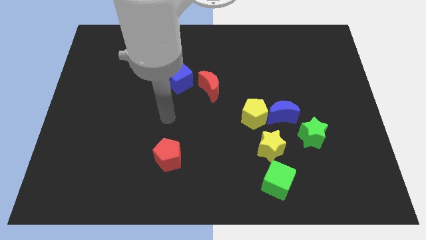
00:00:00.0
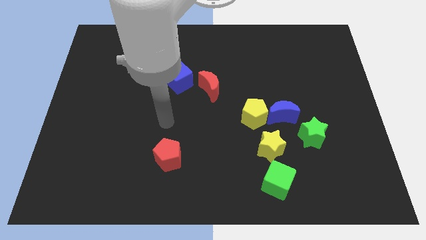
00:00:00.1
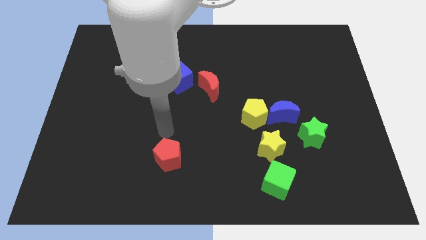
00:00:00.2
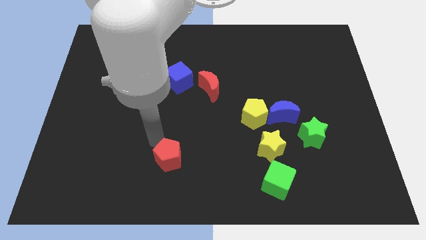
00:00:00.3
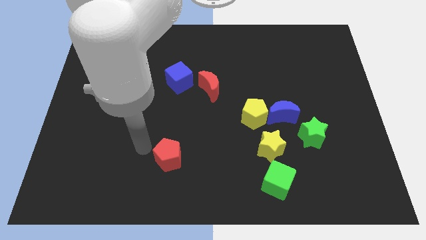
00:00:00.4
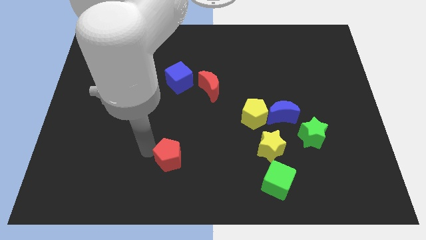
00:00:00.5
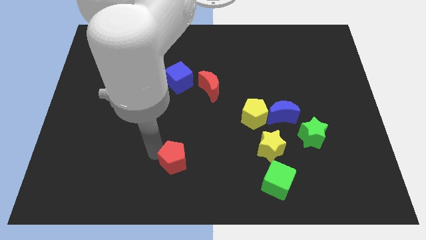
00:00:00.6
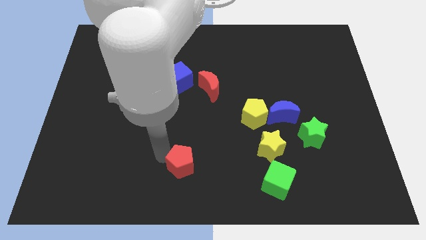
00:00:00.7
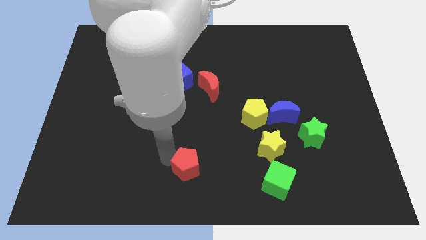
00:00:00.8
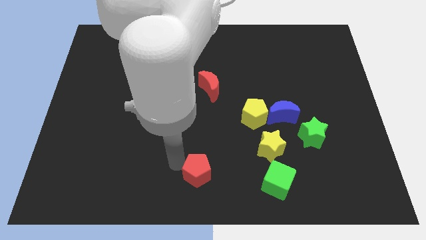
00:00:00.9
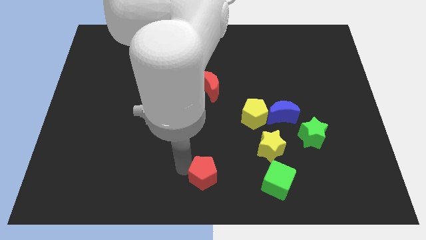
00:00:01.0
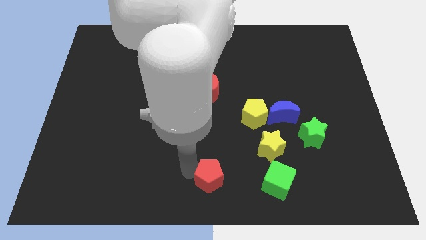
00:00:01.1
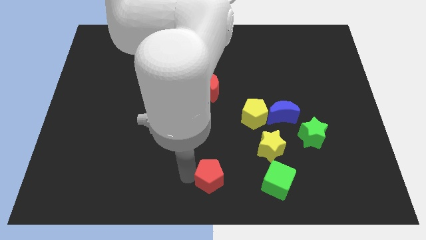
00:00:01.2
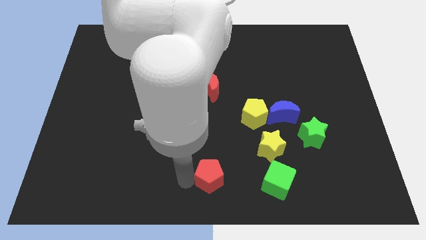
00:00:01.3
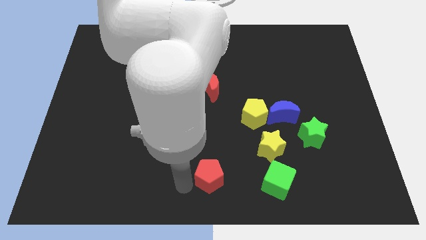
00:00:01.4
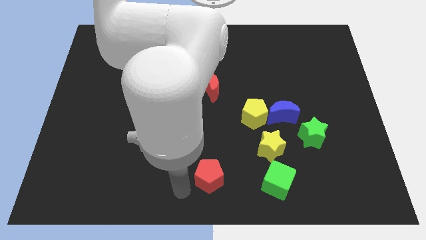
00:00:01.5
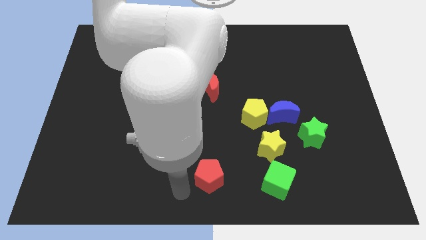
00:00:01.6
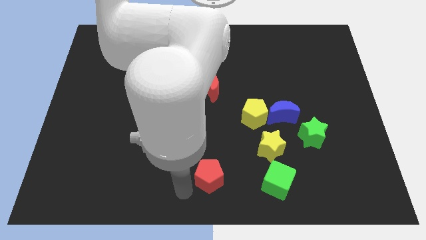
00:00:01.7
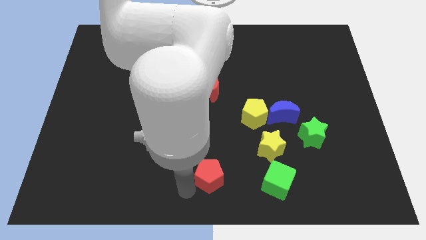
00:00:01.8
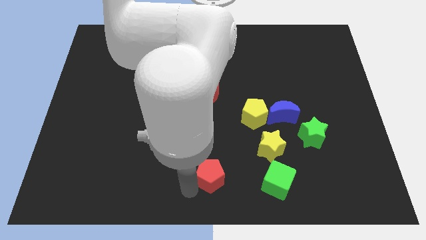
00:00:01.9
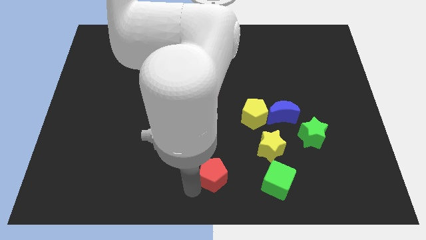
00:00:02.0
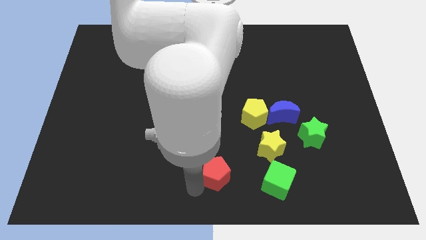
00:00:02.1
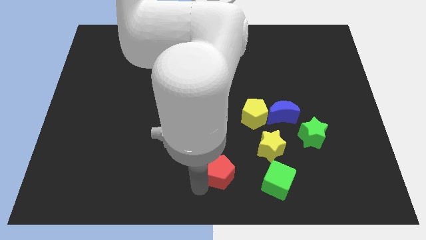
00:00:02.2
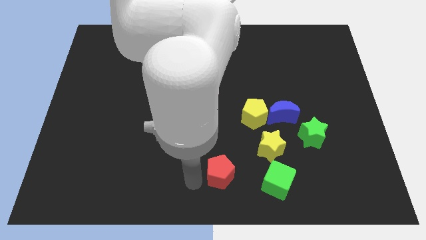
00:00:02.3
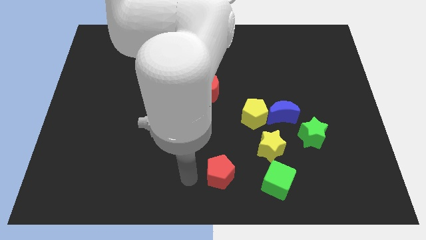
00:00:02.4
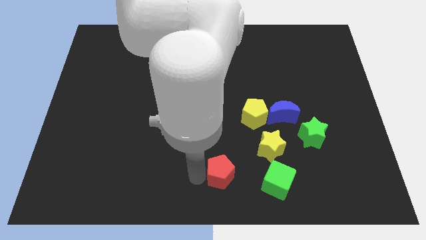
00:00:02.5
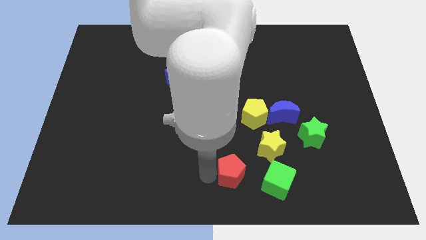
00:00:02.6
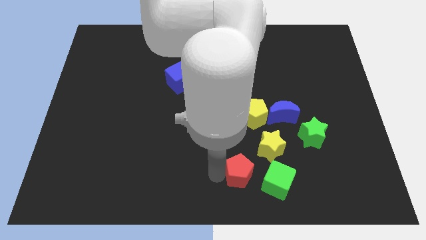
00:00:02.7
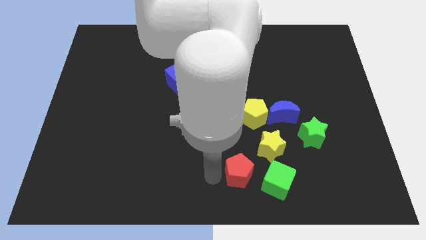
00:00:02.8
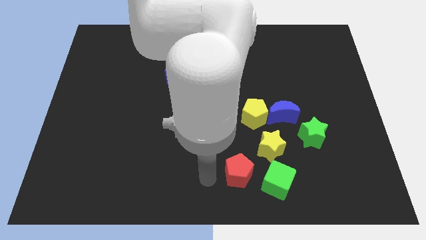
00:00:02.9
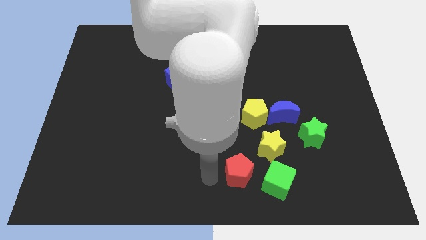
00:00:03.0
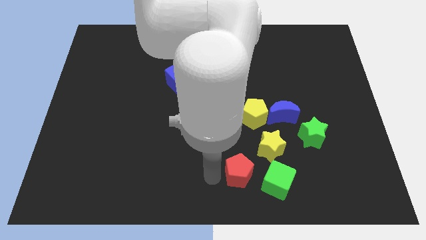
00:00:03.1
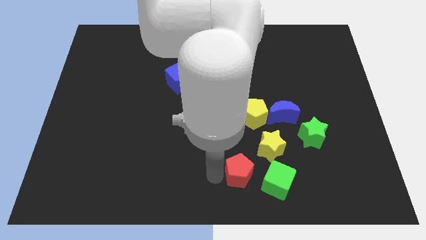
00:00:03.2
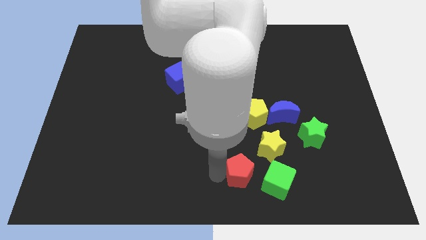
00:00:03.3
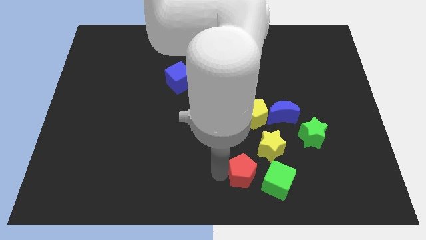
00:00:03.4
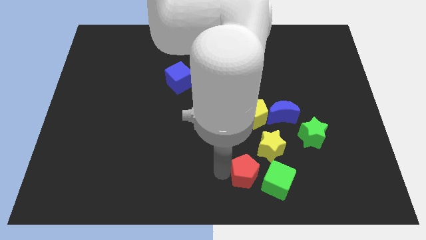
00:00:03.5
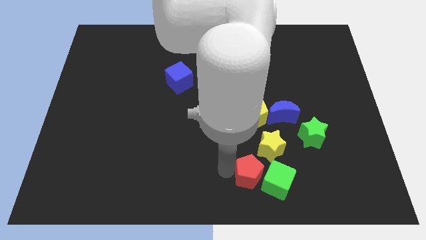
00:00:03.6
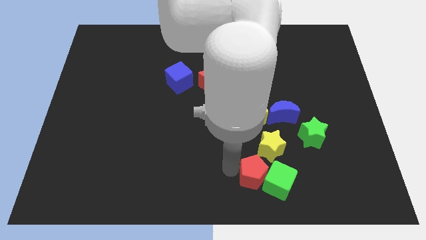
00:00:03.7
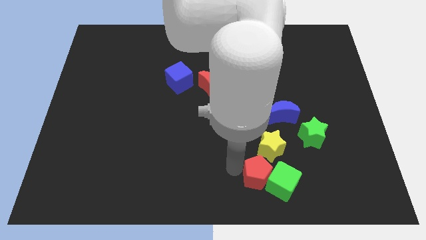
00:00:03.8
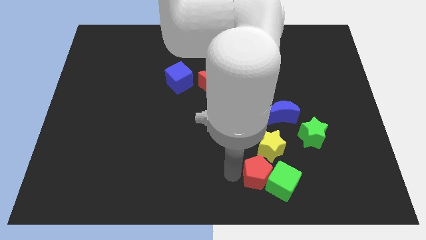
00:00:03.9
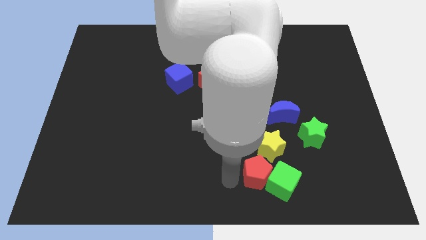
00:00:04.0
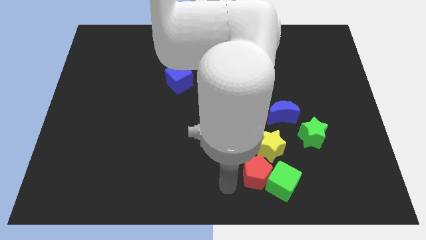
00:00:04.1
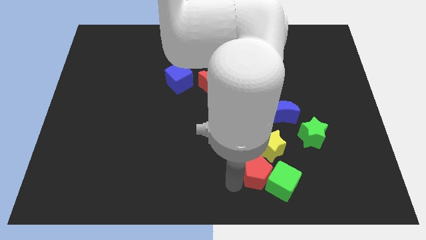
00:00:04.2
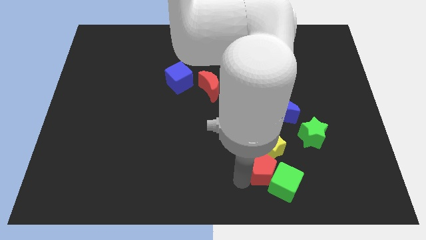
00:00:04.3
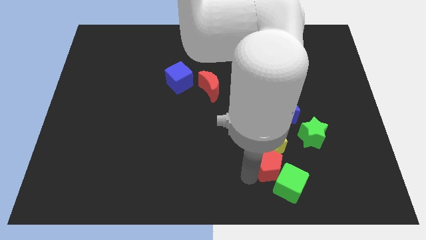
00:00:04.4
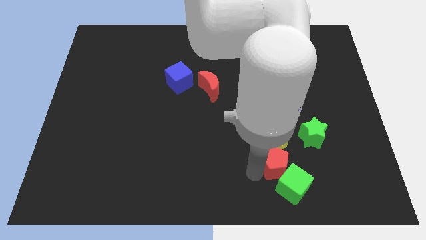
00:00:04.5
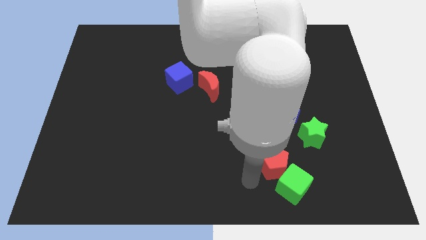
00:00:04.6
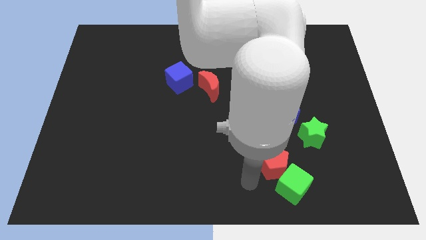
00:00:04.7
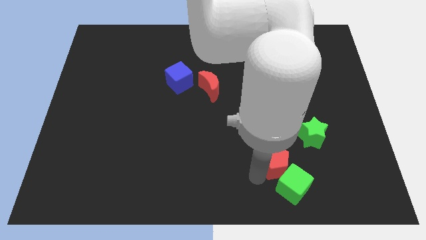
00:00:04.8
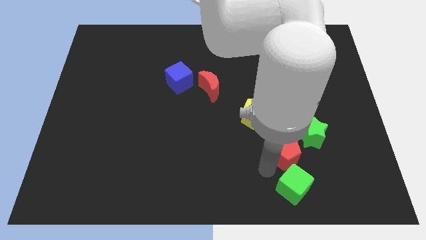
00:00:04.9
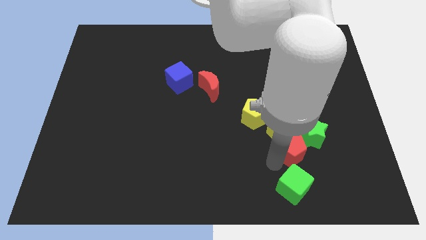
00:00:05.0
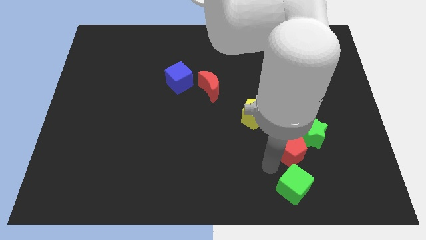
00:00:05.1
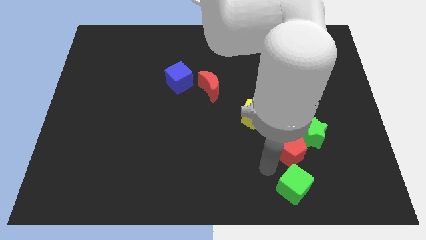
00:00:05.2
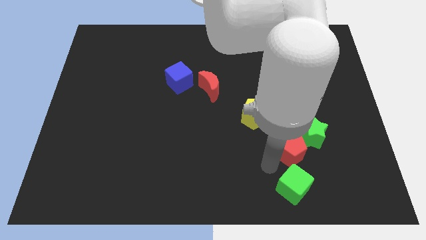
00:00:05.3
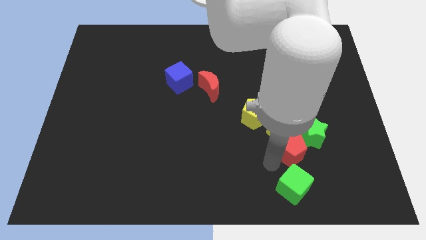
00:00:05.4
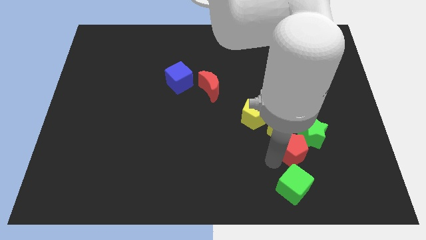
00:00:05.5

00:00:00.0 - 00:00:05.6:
slide the red pentagon towards the green star

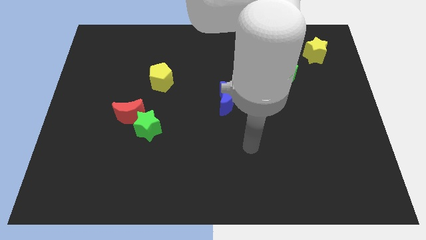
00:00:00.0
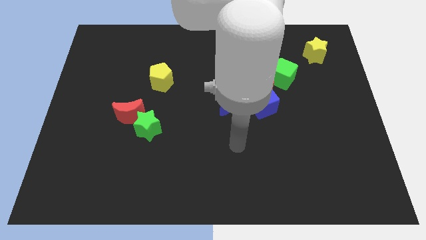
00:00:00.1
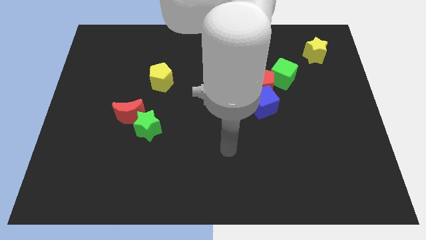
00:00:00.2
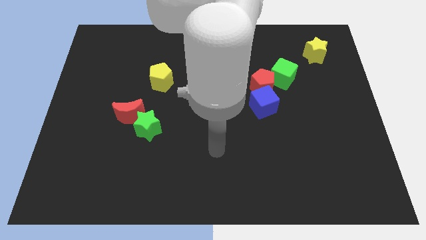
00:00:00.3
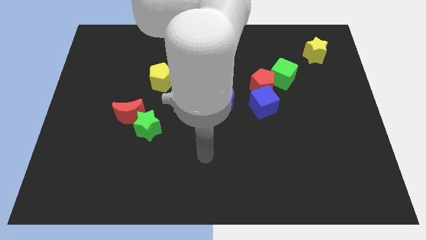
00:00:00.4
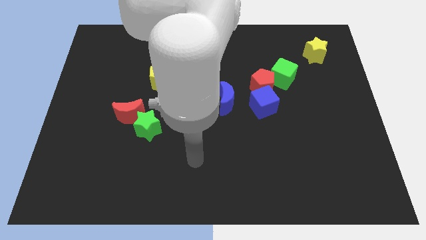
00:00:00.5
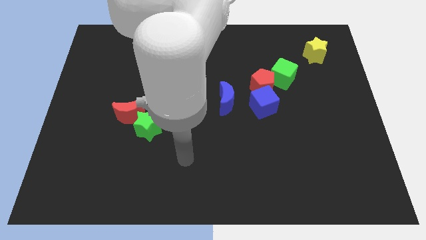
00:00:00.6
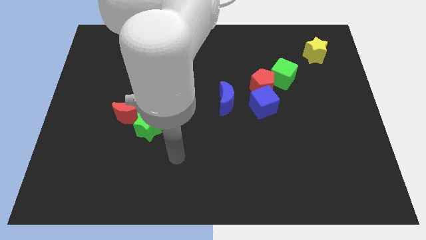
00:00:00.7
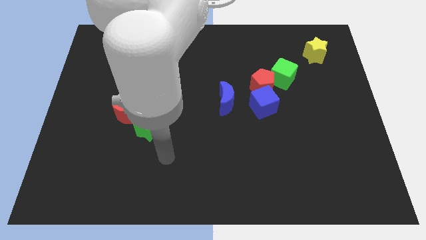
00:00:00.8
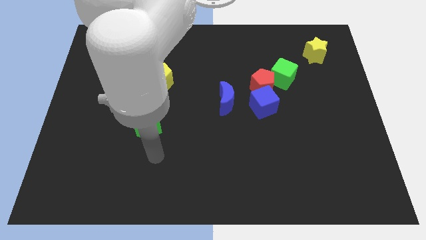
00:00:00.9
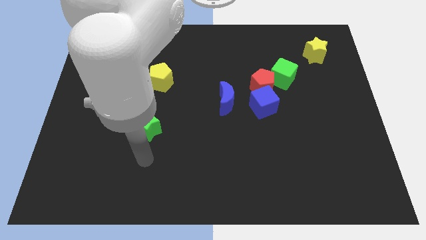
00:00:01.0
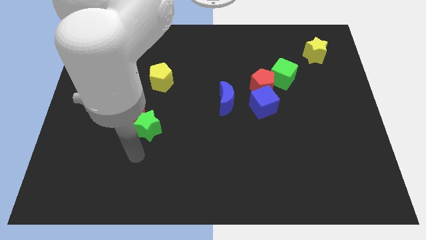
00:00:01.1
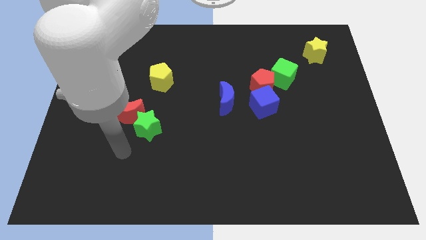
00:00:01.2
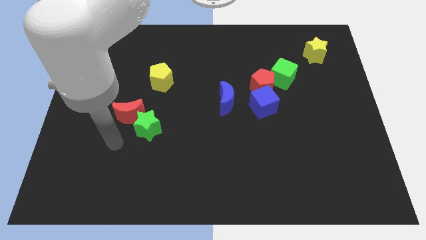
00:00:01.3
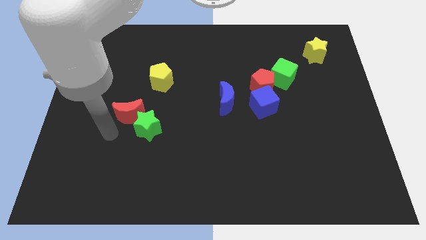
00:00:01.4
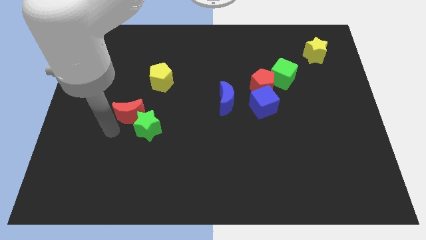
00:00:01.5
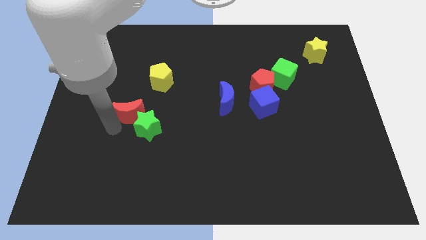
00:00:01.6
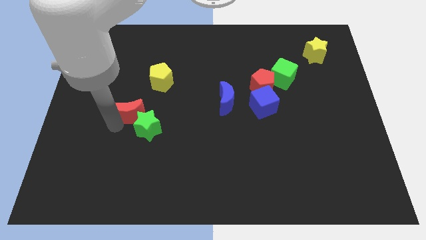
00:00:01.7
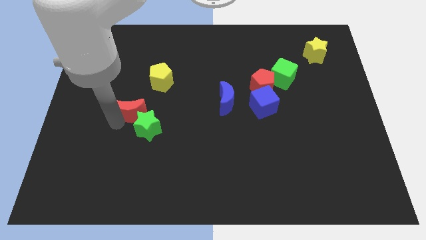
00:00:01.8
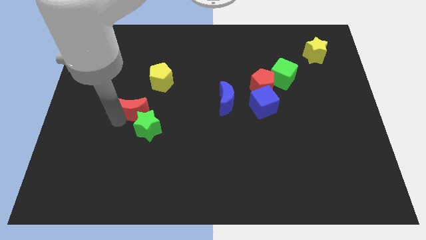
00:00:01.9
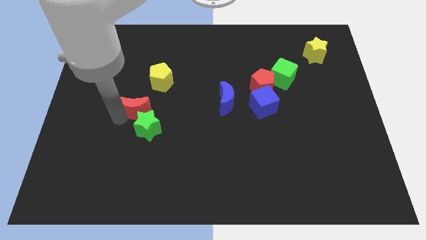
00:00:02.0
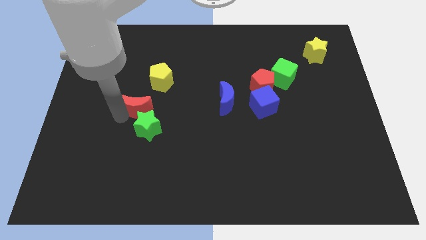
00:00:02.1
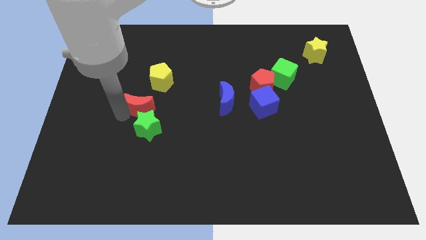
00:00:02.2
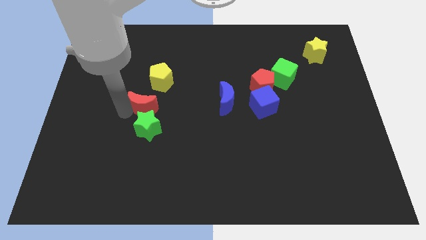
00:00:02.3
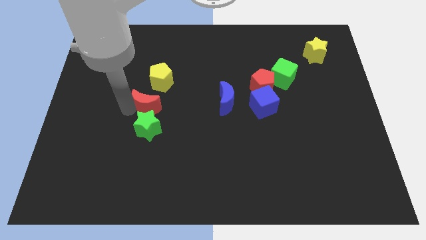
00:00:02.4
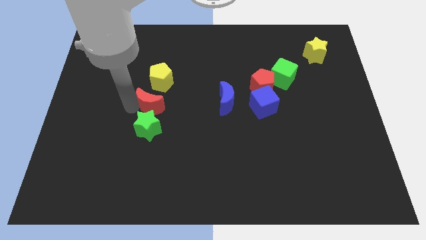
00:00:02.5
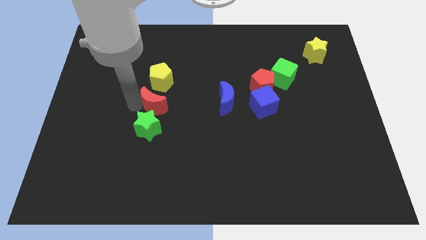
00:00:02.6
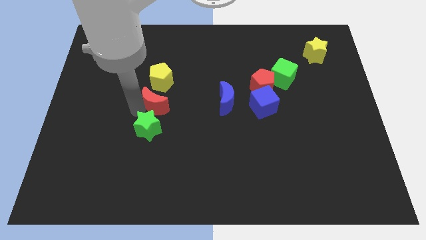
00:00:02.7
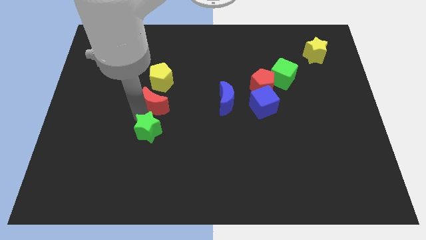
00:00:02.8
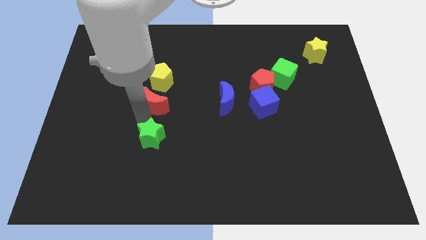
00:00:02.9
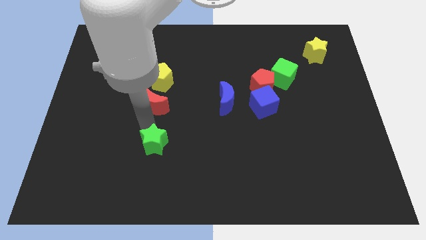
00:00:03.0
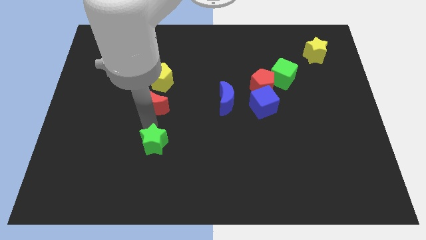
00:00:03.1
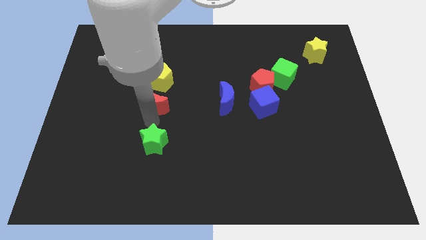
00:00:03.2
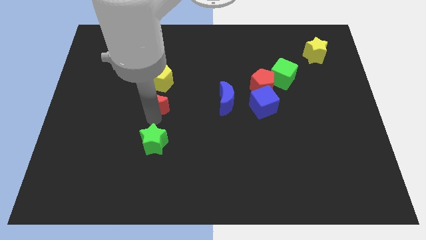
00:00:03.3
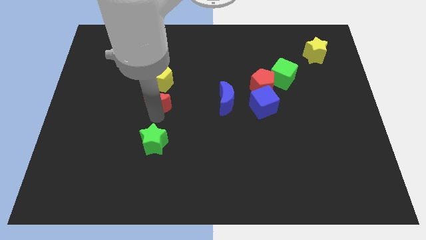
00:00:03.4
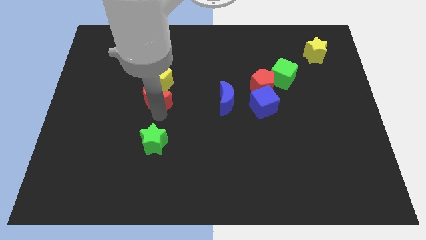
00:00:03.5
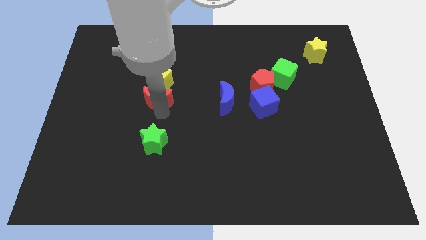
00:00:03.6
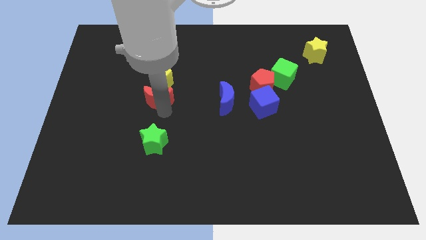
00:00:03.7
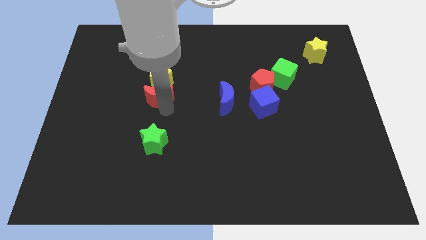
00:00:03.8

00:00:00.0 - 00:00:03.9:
put the red moon close to the yellow pentagon
